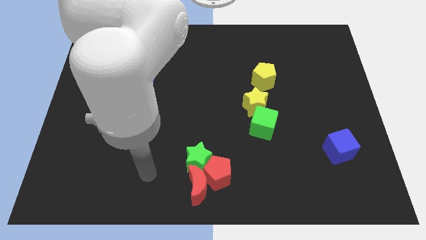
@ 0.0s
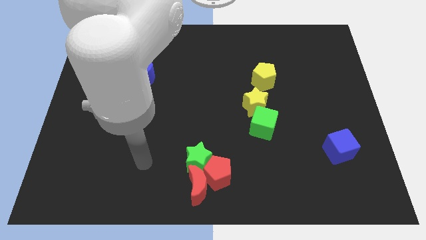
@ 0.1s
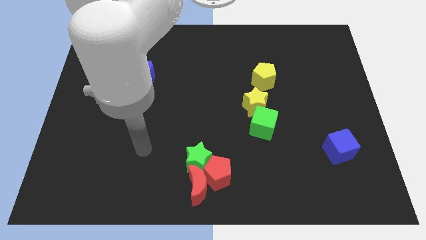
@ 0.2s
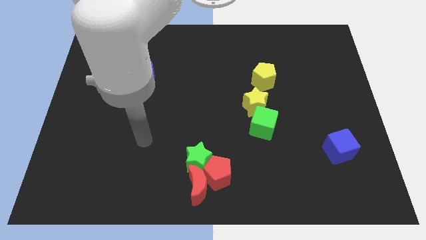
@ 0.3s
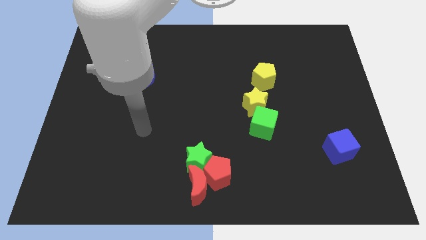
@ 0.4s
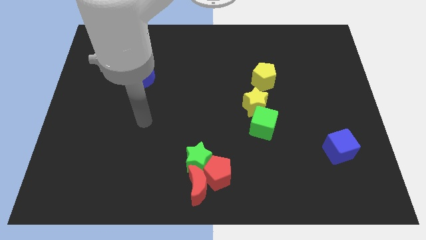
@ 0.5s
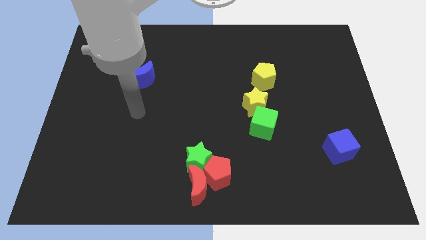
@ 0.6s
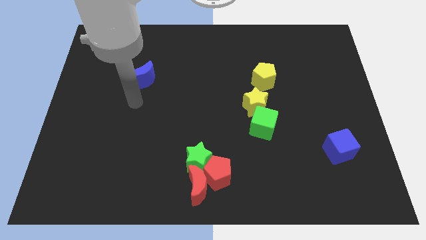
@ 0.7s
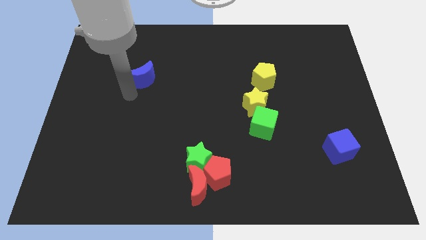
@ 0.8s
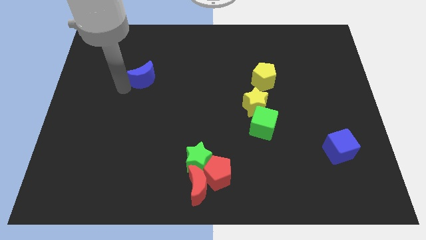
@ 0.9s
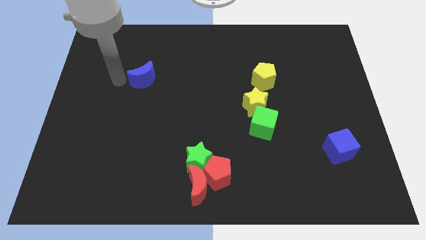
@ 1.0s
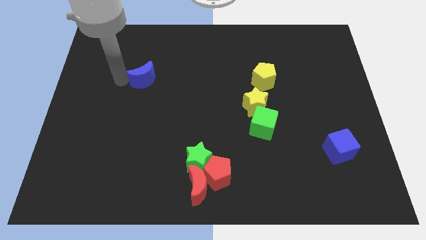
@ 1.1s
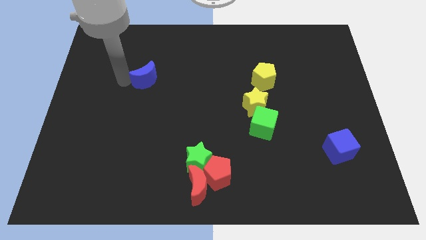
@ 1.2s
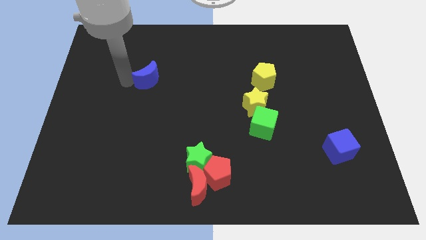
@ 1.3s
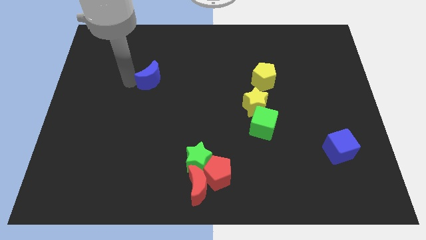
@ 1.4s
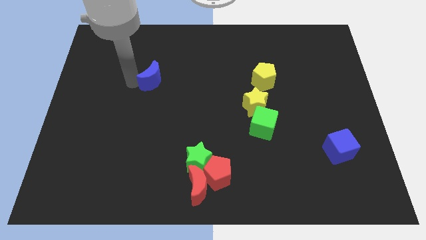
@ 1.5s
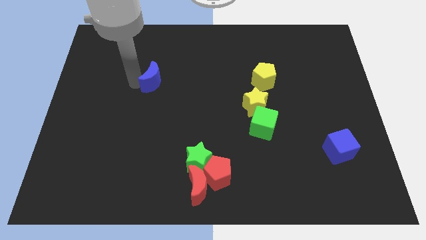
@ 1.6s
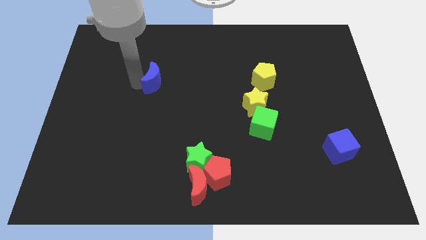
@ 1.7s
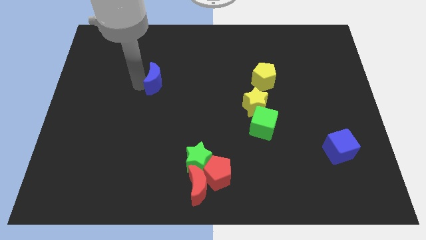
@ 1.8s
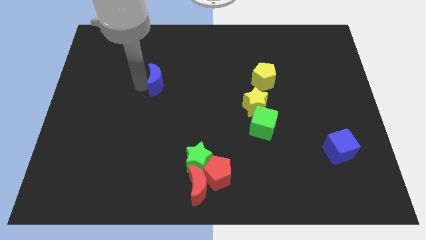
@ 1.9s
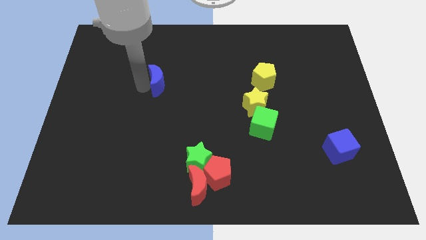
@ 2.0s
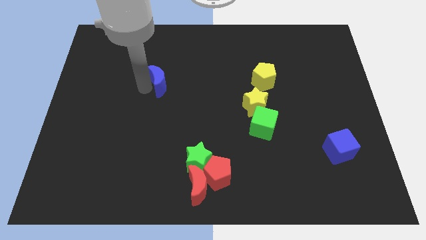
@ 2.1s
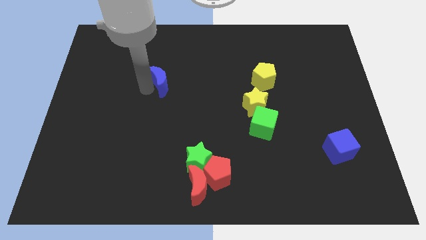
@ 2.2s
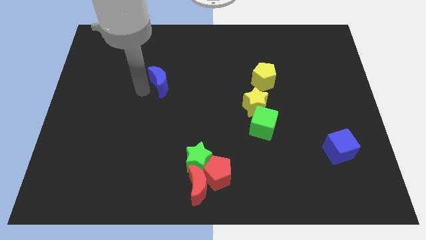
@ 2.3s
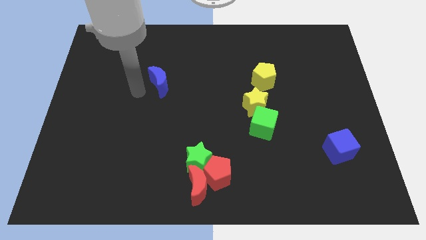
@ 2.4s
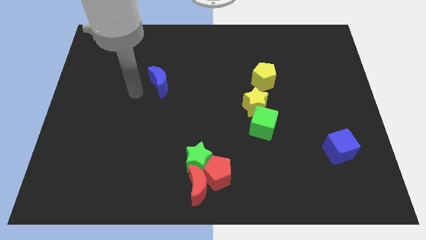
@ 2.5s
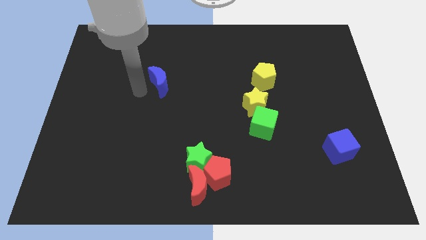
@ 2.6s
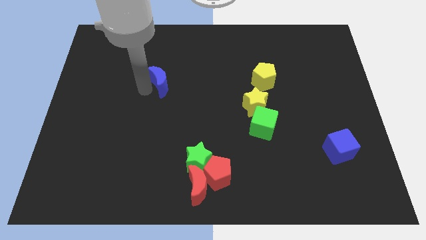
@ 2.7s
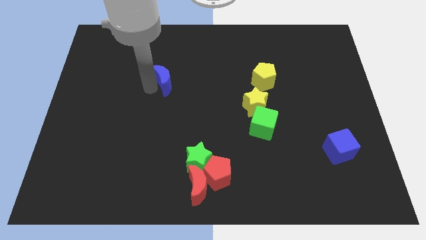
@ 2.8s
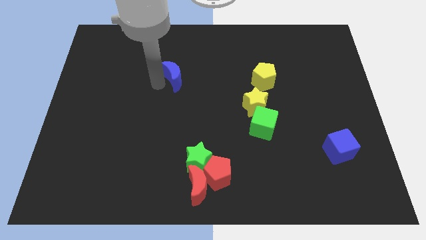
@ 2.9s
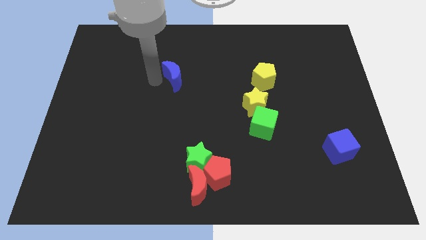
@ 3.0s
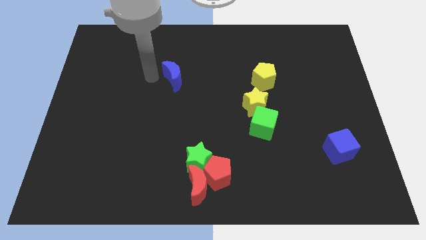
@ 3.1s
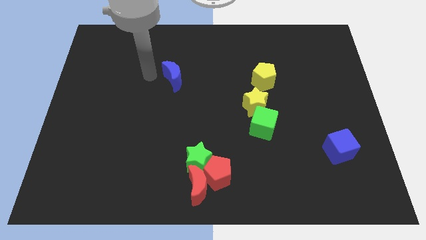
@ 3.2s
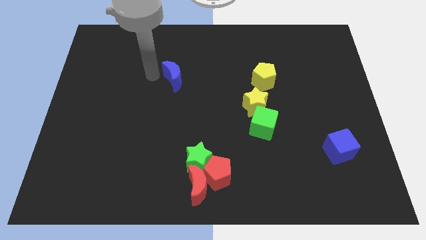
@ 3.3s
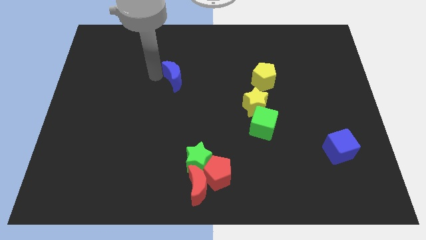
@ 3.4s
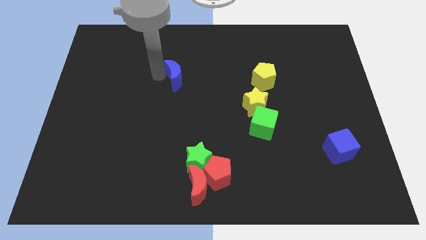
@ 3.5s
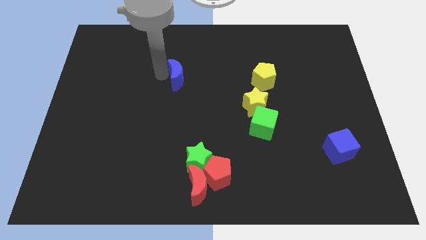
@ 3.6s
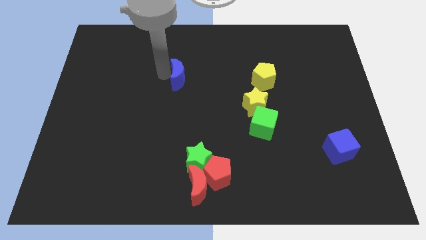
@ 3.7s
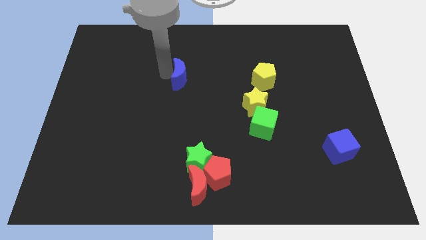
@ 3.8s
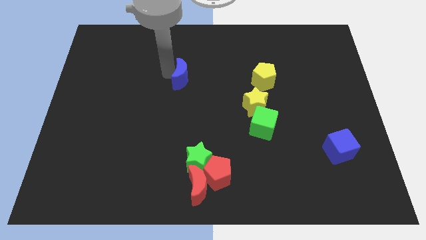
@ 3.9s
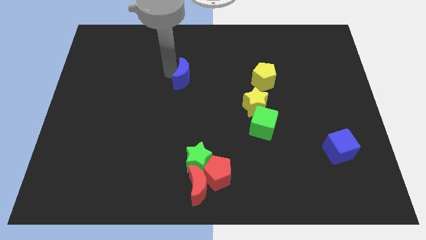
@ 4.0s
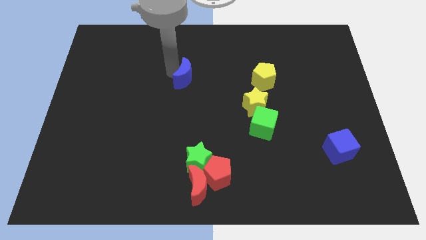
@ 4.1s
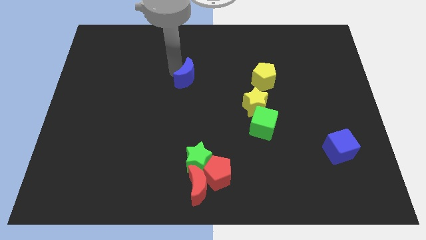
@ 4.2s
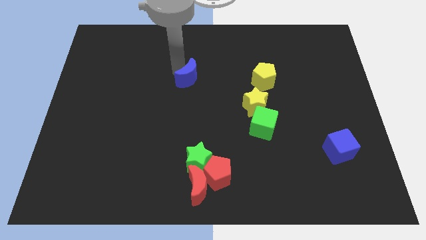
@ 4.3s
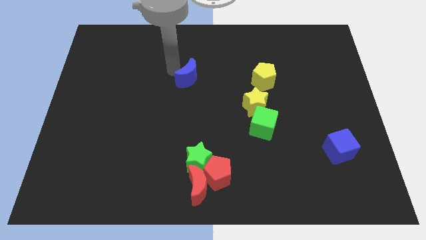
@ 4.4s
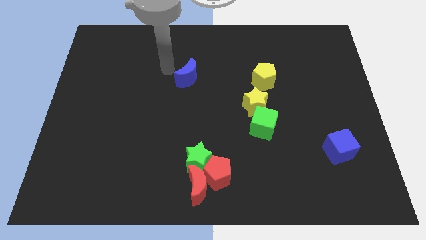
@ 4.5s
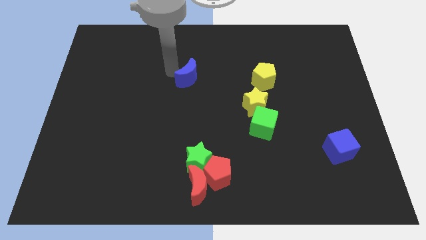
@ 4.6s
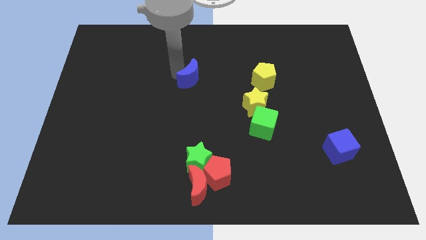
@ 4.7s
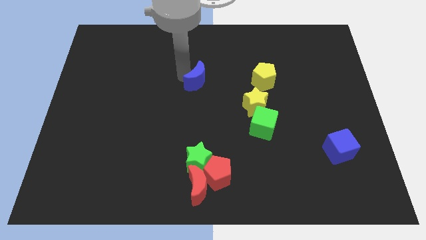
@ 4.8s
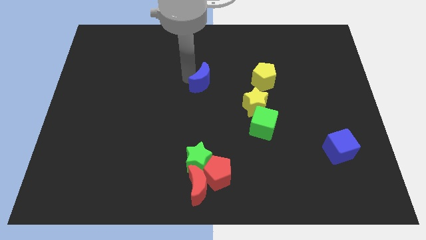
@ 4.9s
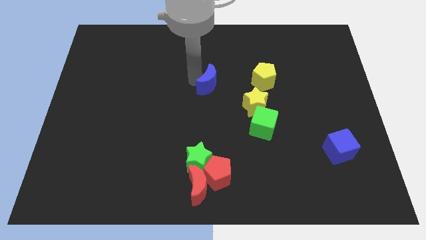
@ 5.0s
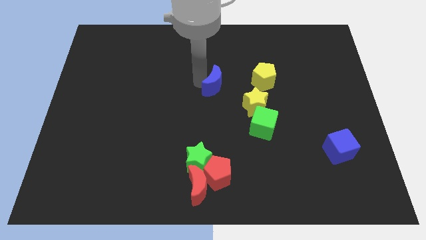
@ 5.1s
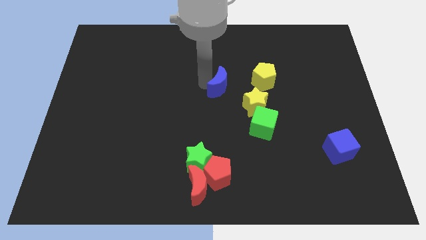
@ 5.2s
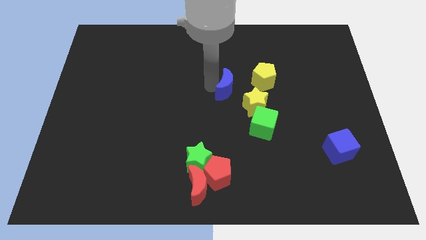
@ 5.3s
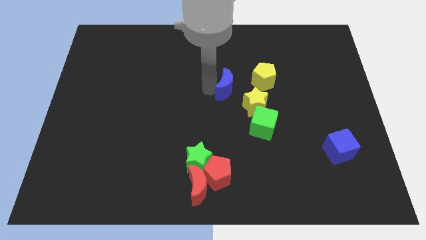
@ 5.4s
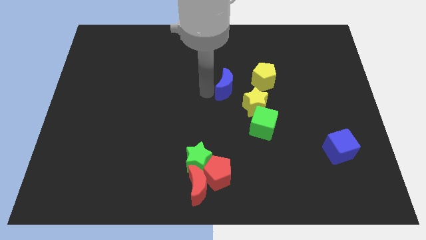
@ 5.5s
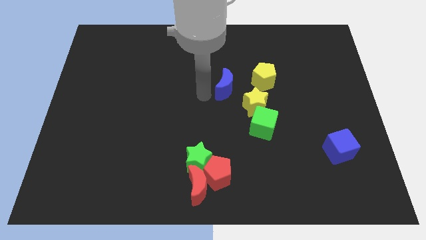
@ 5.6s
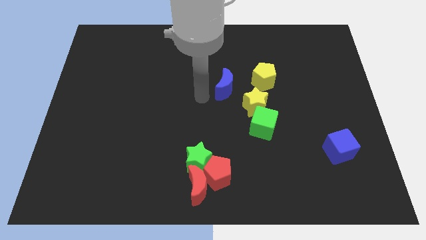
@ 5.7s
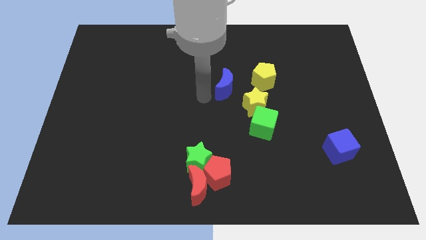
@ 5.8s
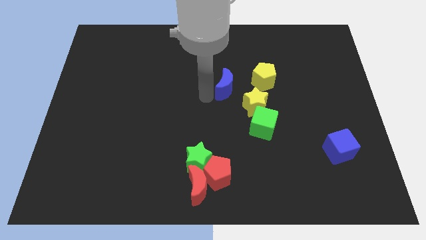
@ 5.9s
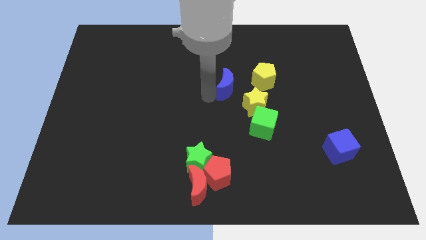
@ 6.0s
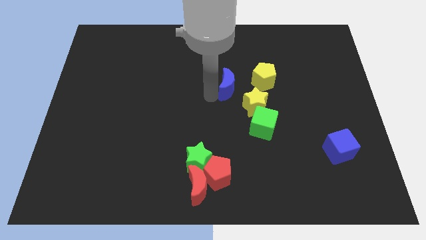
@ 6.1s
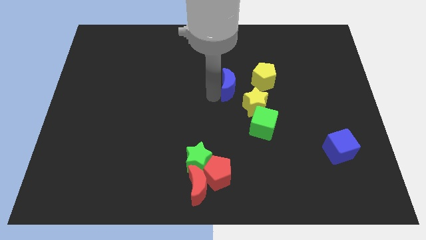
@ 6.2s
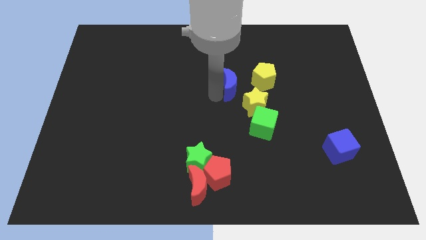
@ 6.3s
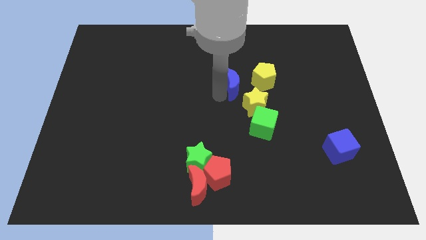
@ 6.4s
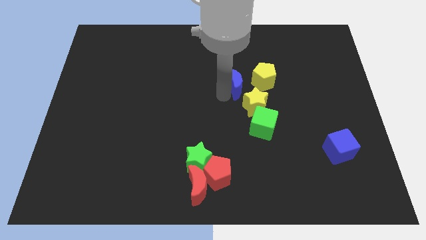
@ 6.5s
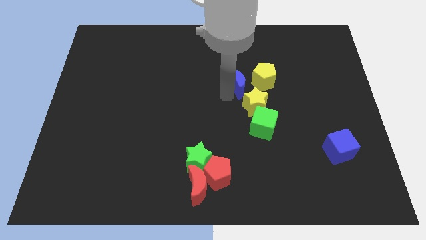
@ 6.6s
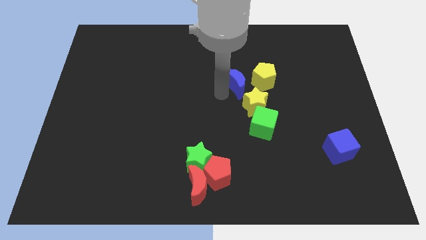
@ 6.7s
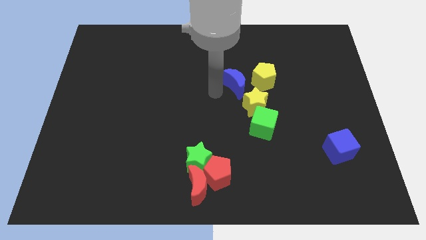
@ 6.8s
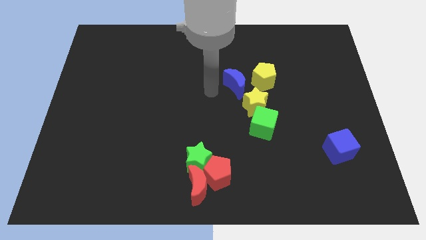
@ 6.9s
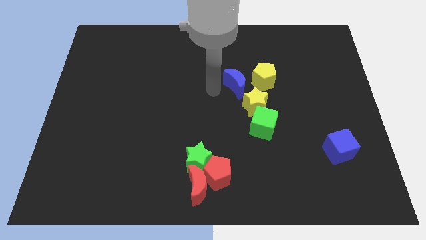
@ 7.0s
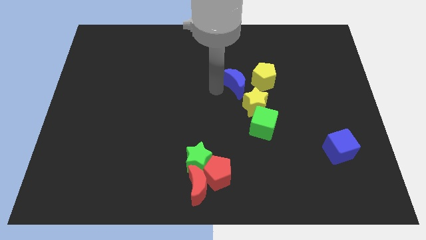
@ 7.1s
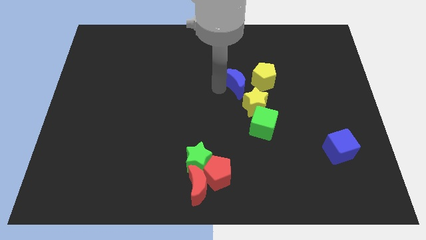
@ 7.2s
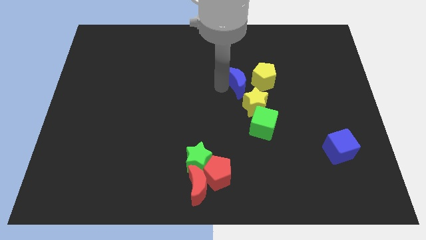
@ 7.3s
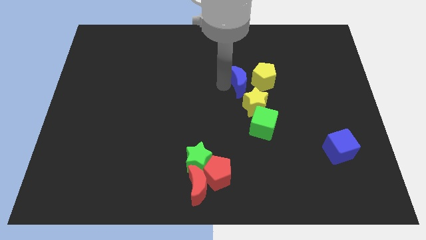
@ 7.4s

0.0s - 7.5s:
push the blue moon towards the yellow pentagon
